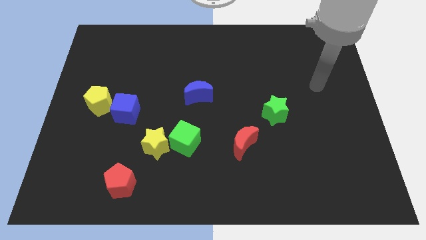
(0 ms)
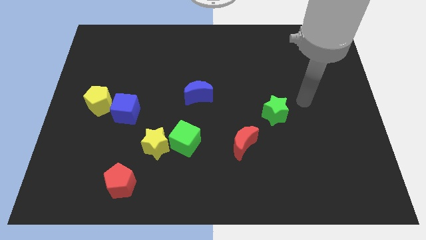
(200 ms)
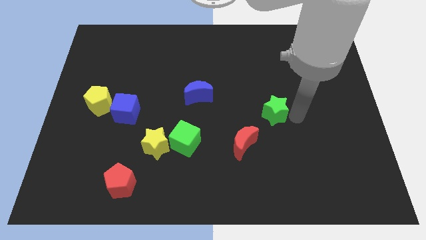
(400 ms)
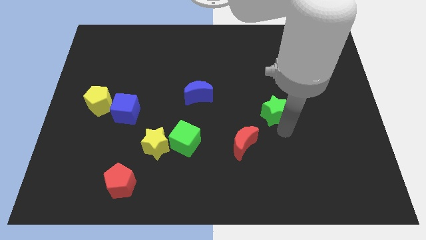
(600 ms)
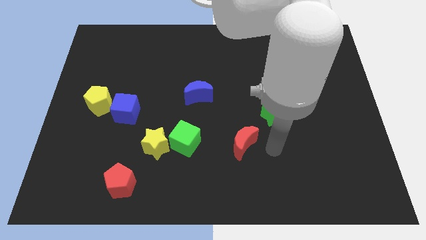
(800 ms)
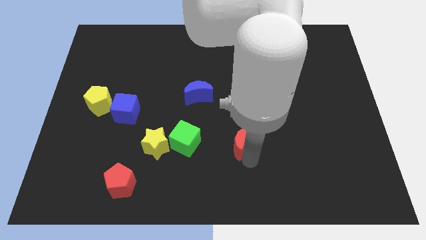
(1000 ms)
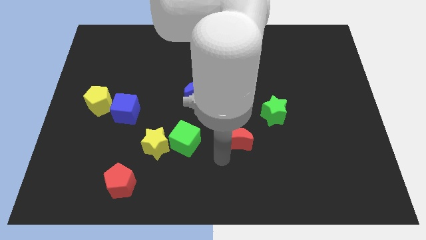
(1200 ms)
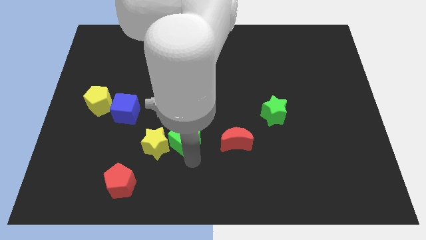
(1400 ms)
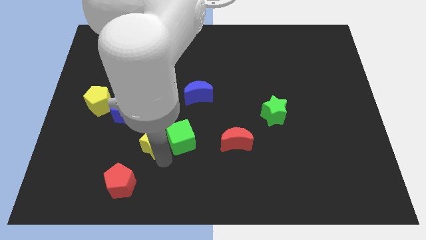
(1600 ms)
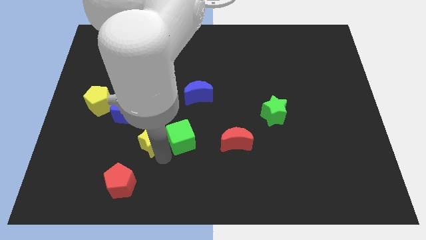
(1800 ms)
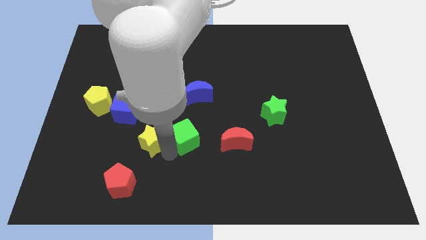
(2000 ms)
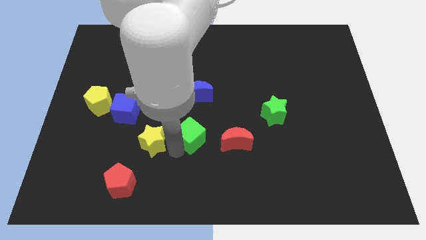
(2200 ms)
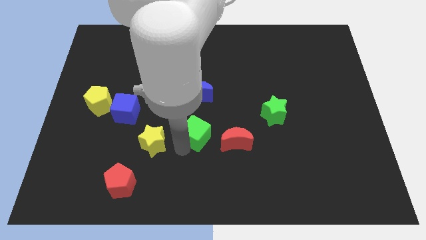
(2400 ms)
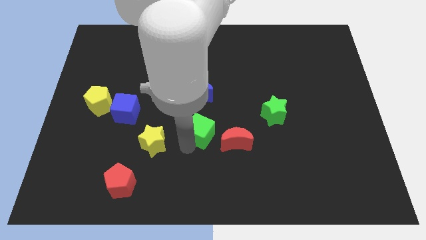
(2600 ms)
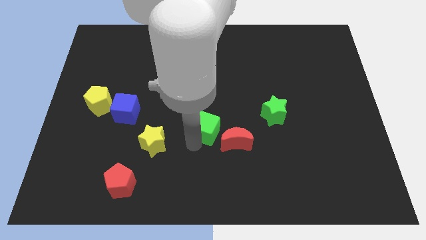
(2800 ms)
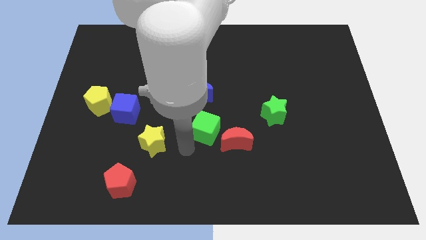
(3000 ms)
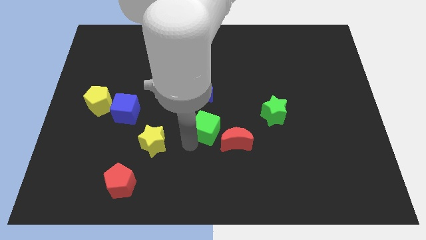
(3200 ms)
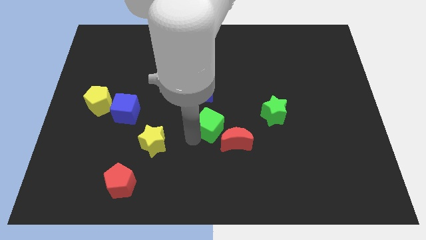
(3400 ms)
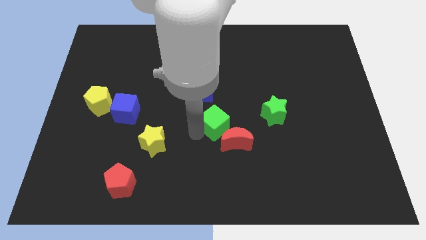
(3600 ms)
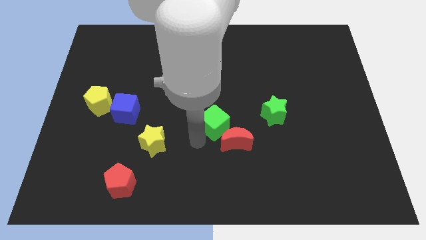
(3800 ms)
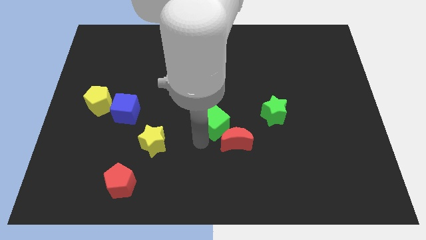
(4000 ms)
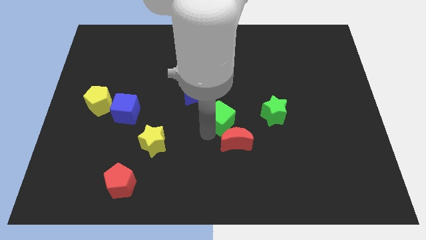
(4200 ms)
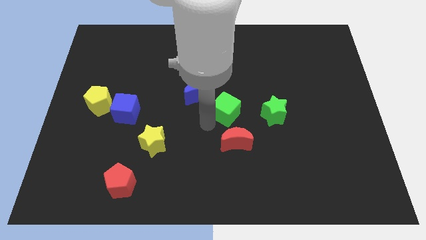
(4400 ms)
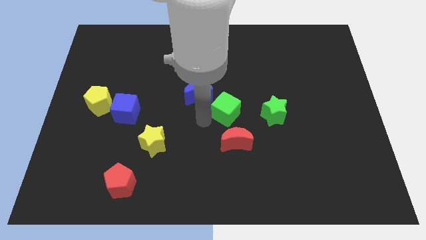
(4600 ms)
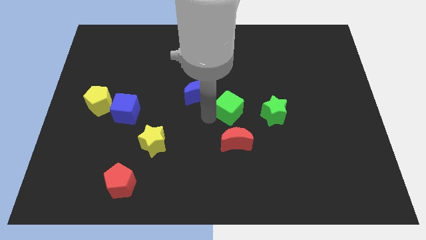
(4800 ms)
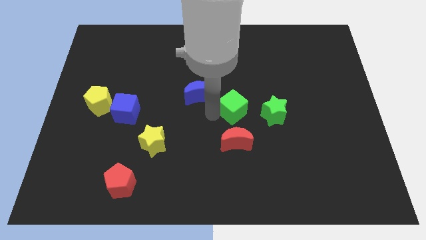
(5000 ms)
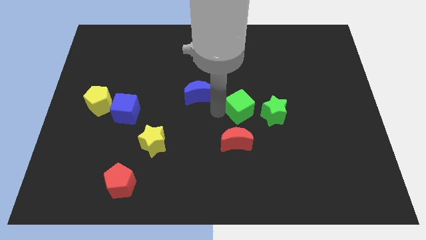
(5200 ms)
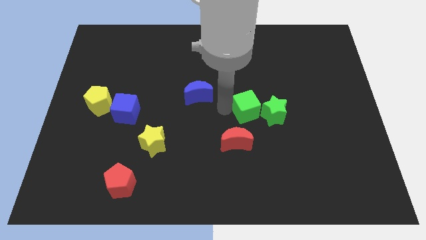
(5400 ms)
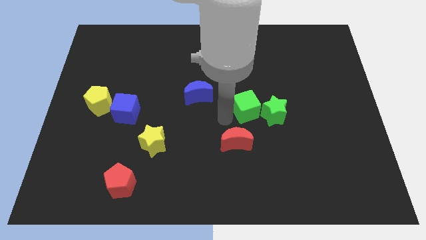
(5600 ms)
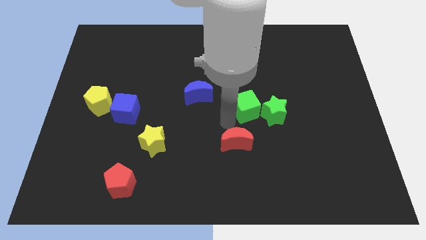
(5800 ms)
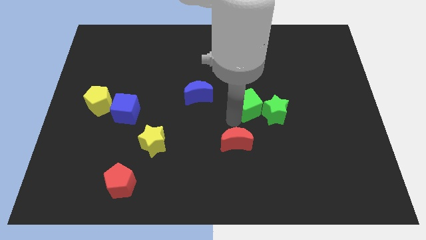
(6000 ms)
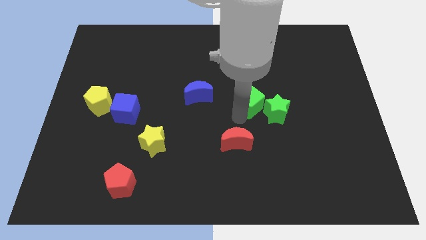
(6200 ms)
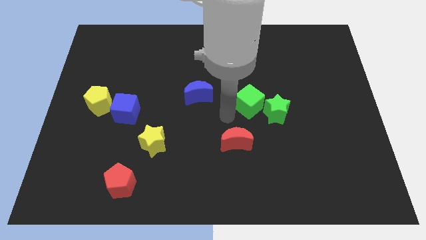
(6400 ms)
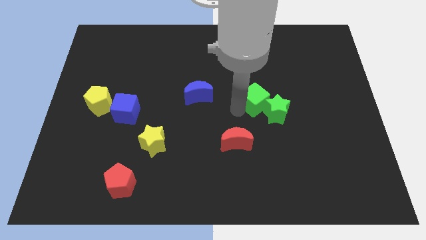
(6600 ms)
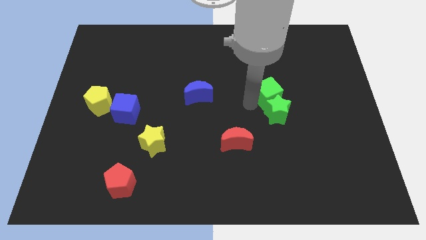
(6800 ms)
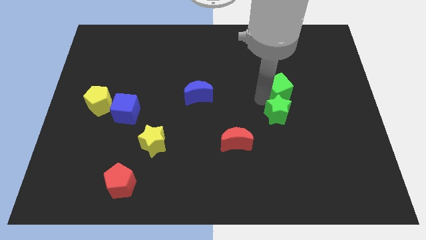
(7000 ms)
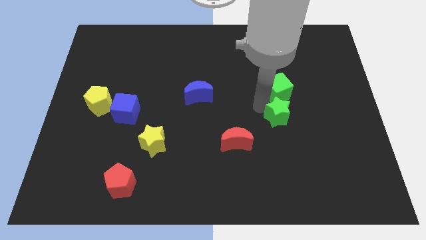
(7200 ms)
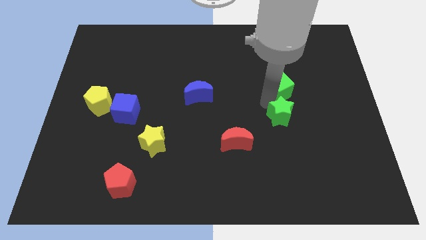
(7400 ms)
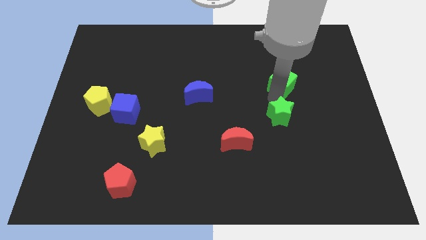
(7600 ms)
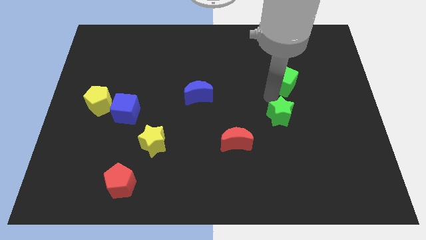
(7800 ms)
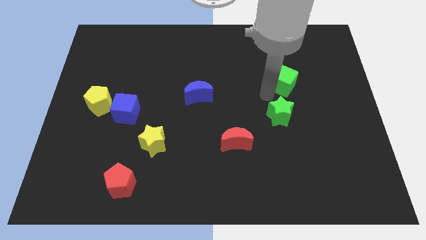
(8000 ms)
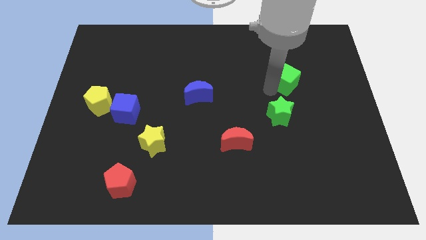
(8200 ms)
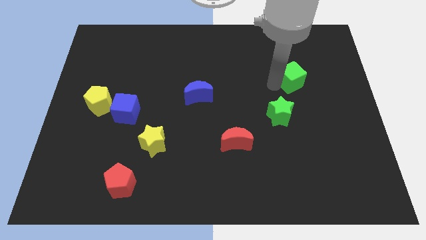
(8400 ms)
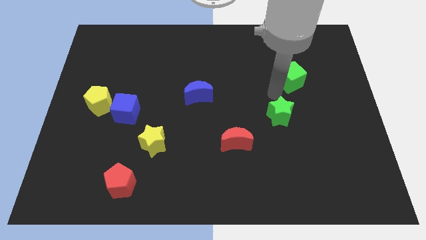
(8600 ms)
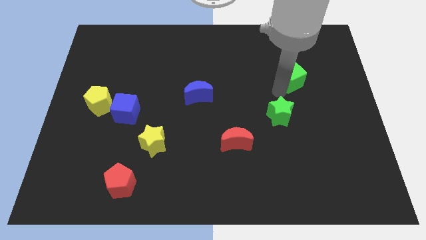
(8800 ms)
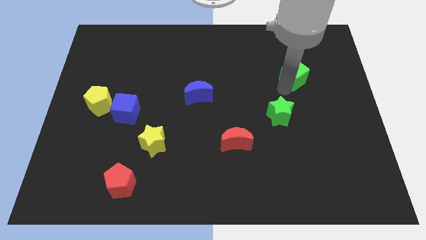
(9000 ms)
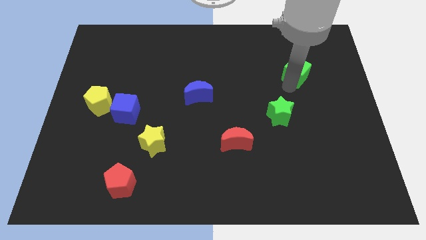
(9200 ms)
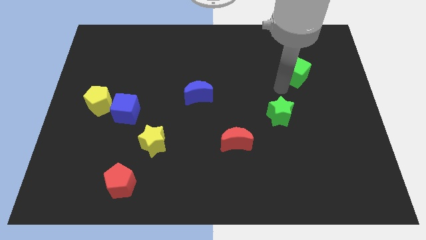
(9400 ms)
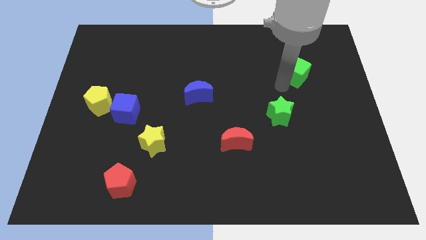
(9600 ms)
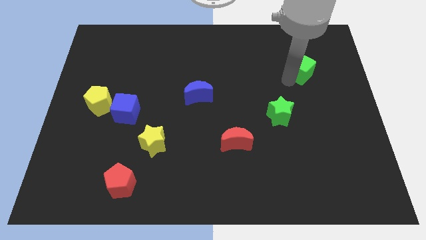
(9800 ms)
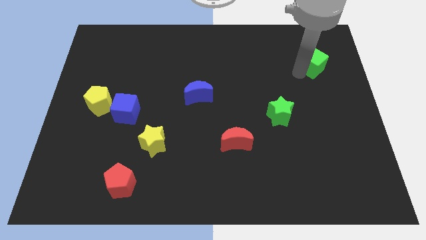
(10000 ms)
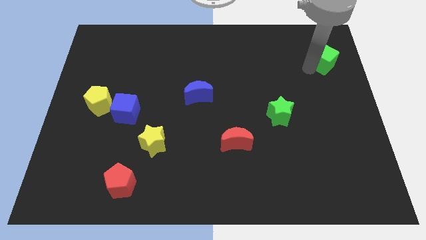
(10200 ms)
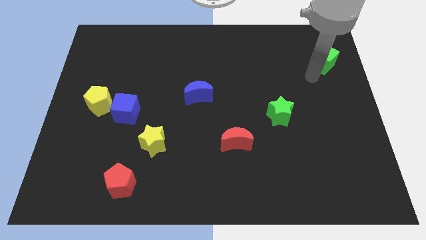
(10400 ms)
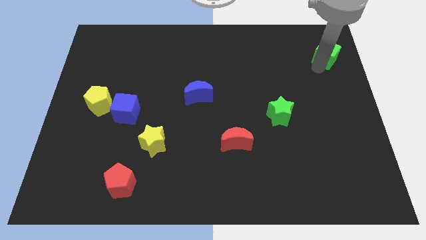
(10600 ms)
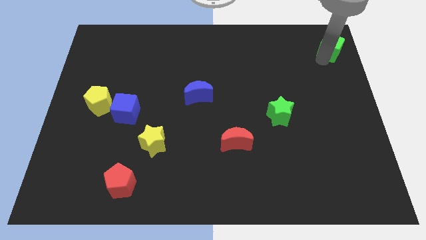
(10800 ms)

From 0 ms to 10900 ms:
push the green cube to the top right corner
